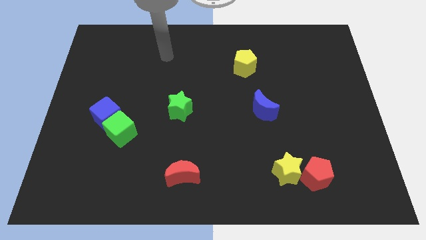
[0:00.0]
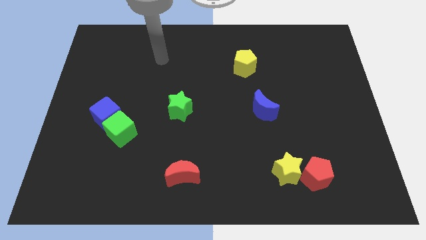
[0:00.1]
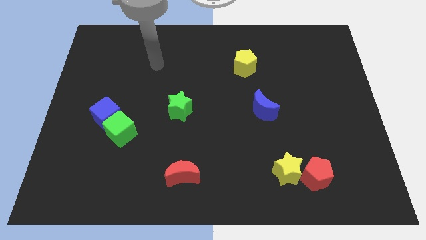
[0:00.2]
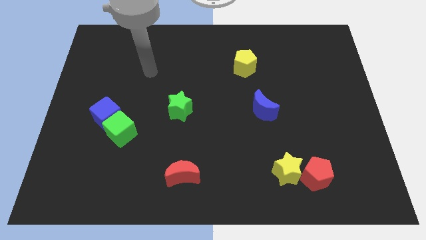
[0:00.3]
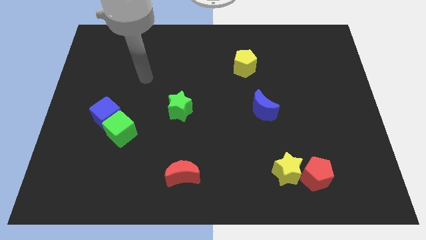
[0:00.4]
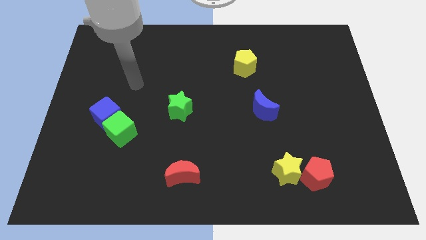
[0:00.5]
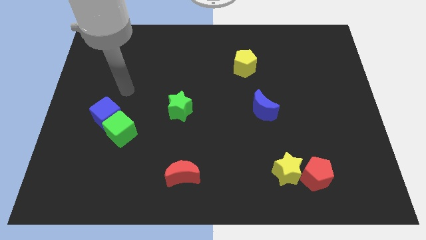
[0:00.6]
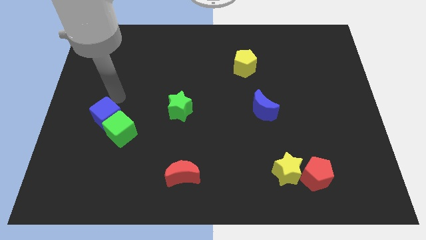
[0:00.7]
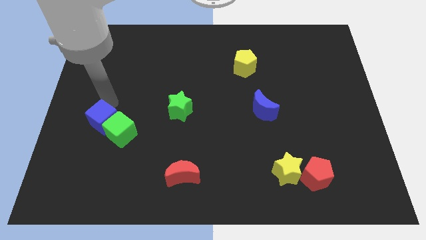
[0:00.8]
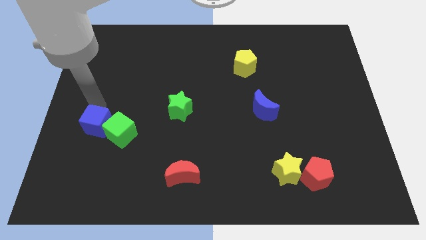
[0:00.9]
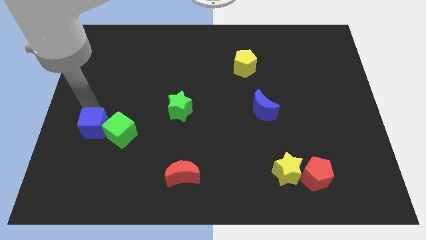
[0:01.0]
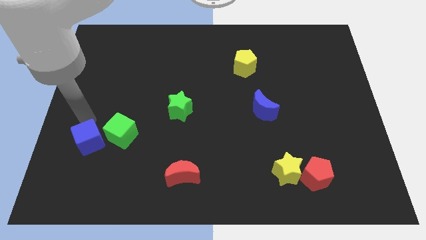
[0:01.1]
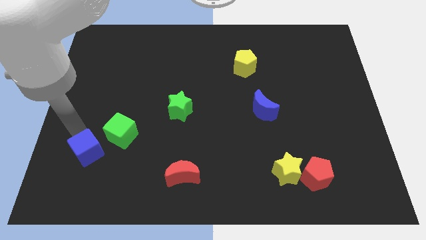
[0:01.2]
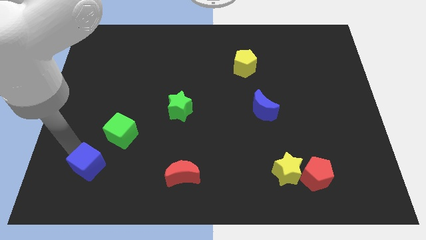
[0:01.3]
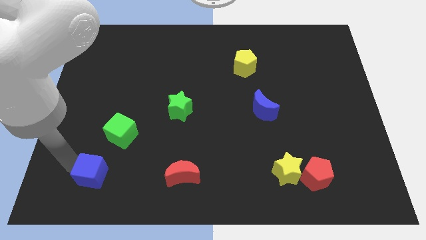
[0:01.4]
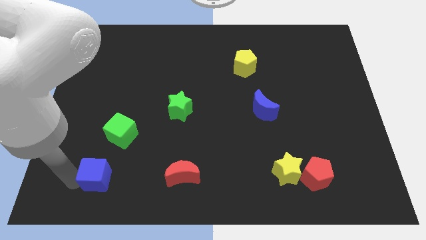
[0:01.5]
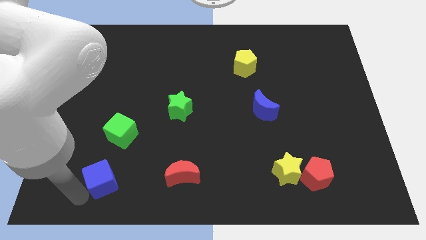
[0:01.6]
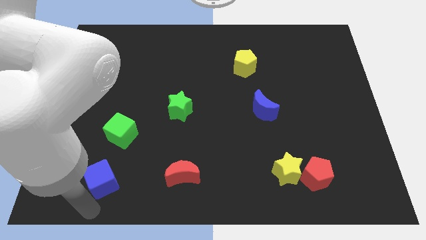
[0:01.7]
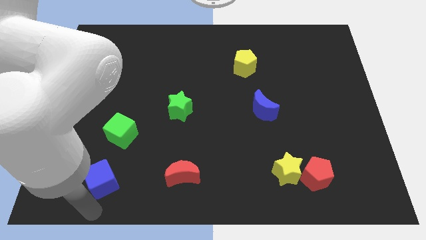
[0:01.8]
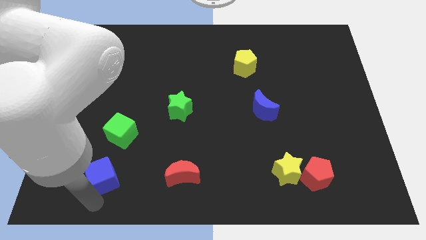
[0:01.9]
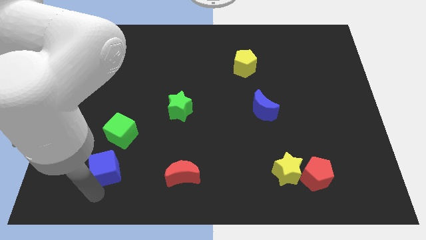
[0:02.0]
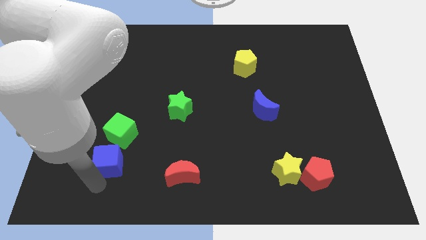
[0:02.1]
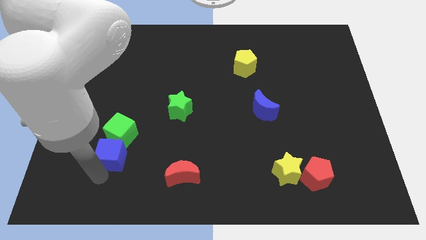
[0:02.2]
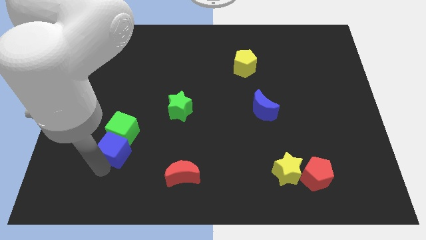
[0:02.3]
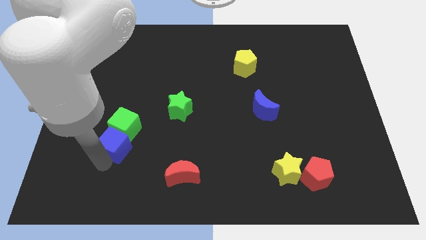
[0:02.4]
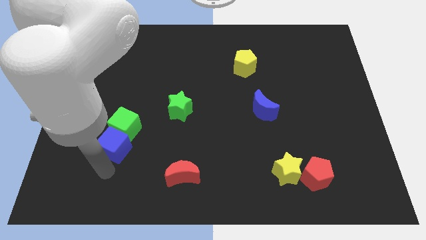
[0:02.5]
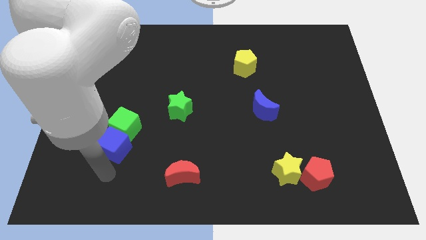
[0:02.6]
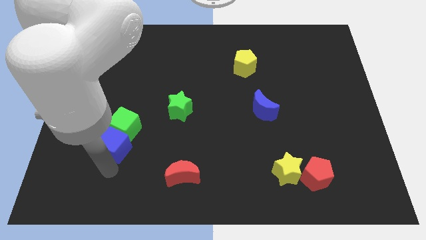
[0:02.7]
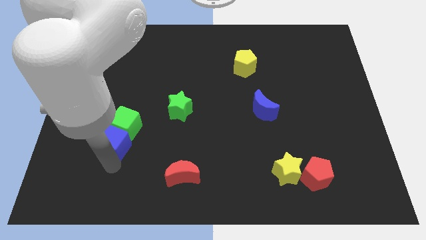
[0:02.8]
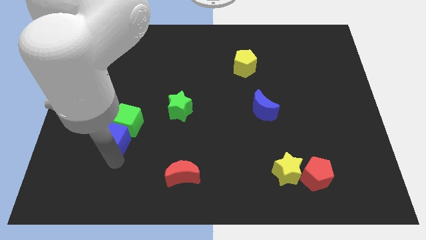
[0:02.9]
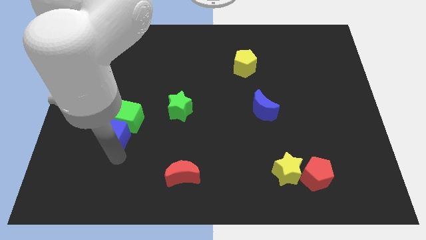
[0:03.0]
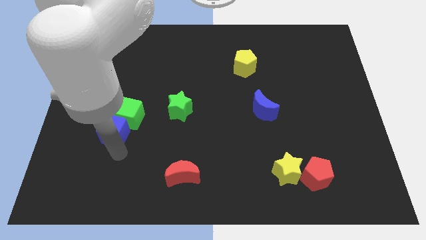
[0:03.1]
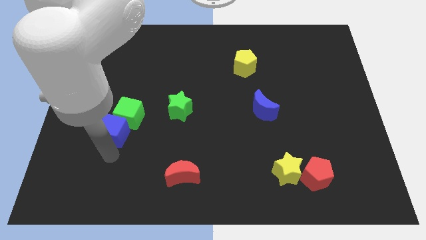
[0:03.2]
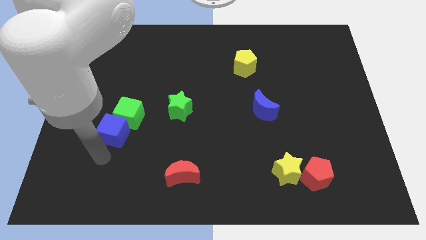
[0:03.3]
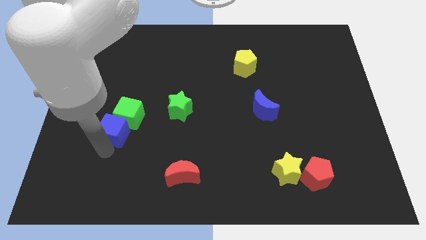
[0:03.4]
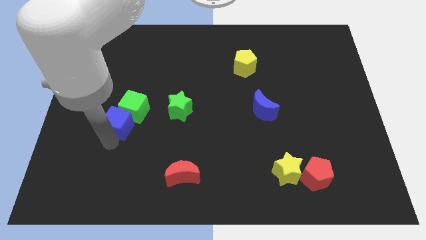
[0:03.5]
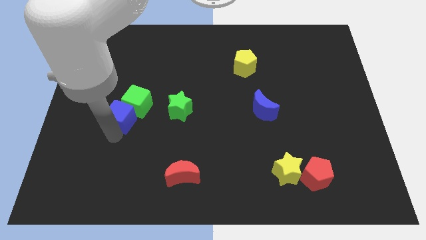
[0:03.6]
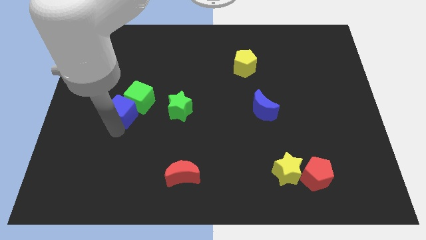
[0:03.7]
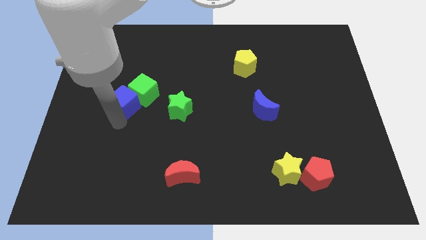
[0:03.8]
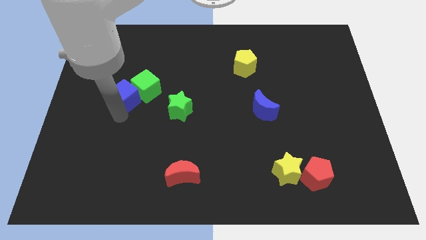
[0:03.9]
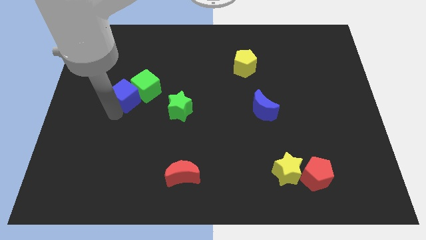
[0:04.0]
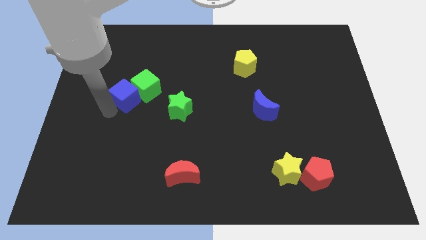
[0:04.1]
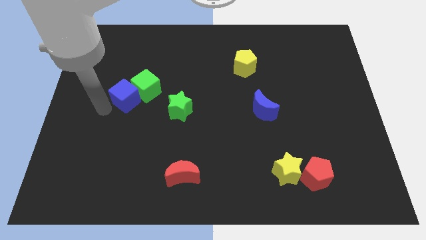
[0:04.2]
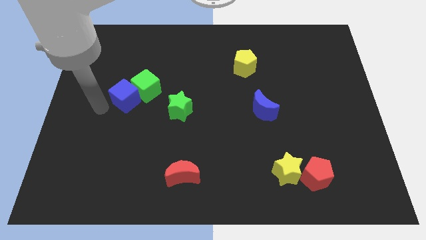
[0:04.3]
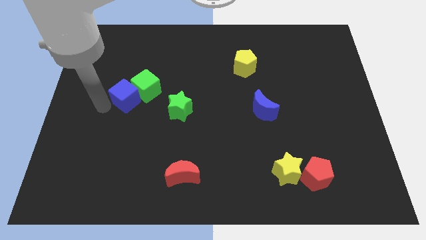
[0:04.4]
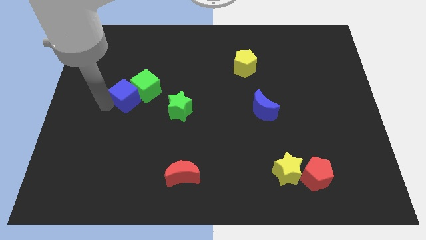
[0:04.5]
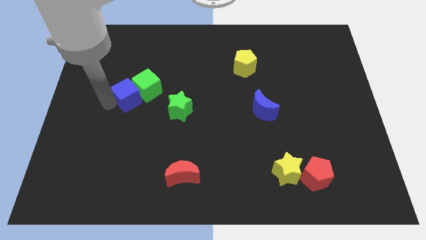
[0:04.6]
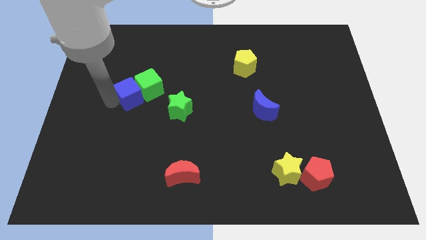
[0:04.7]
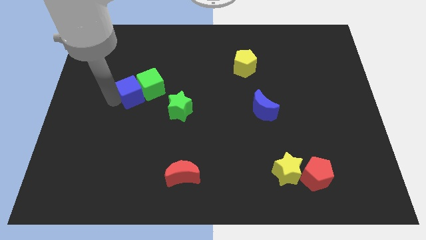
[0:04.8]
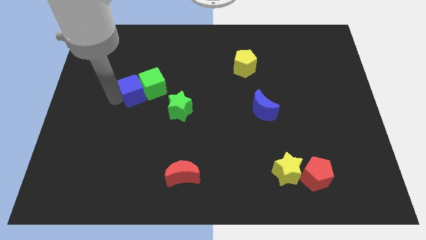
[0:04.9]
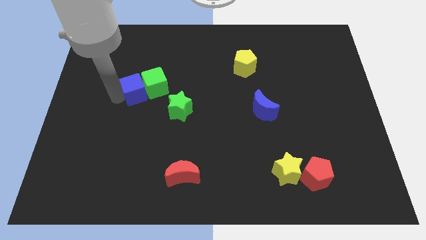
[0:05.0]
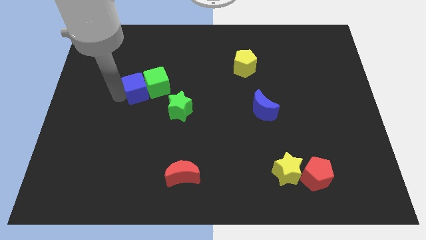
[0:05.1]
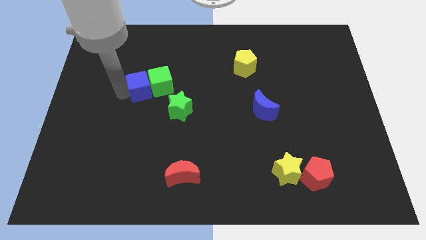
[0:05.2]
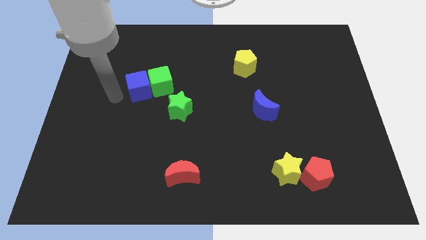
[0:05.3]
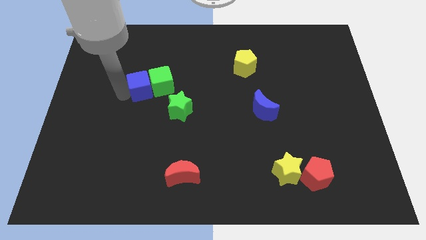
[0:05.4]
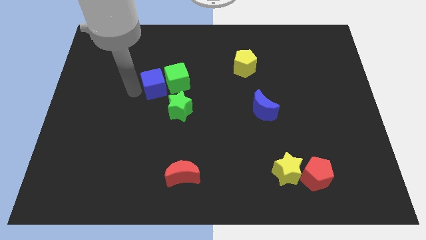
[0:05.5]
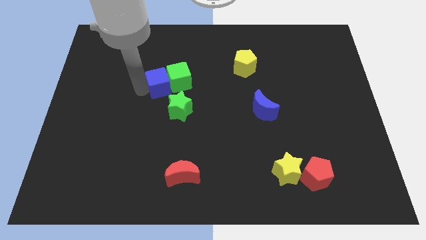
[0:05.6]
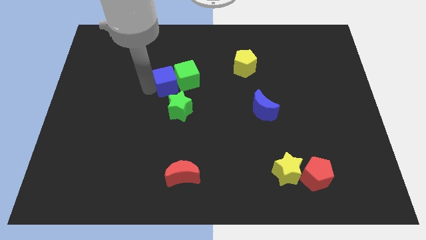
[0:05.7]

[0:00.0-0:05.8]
push the blue cube above the green star

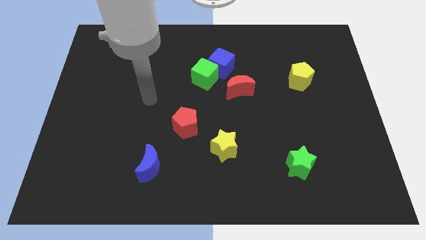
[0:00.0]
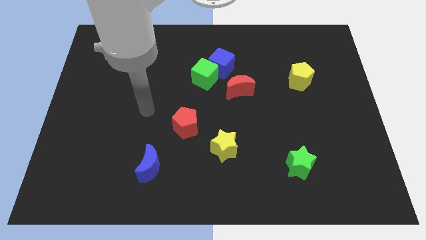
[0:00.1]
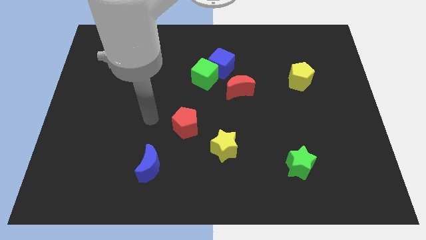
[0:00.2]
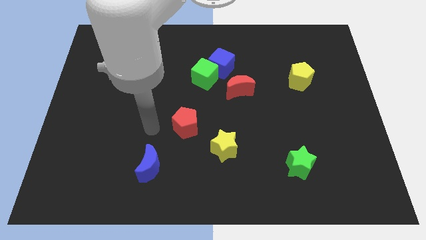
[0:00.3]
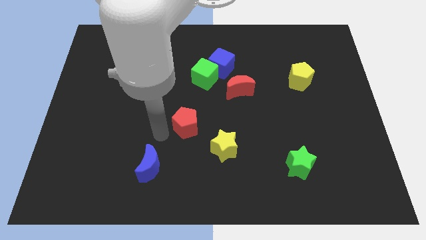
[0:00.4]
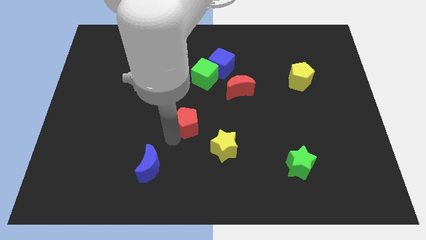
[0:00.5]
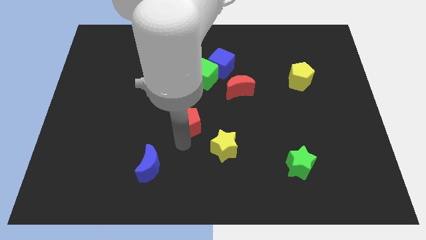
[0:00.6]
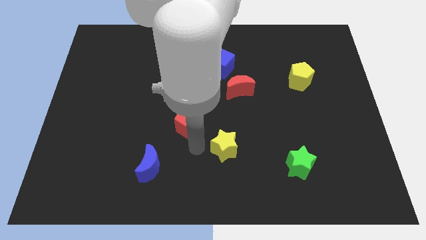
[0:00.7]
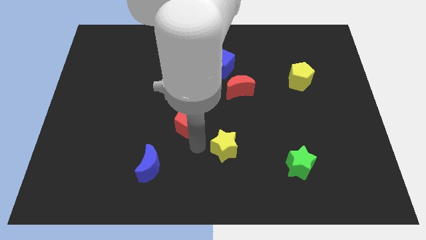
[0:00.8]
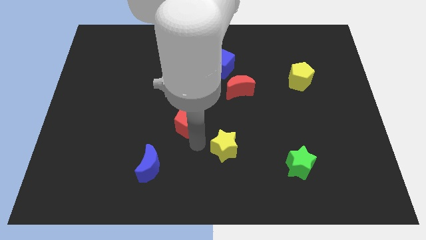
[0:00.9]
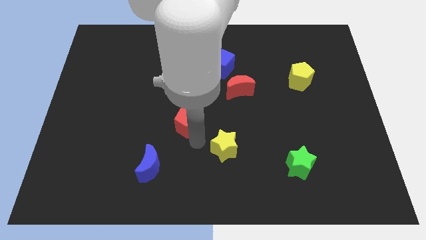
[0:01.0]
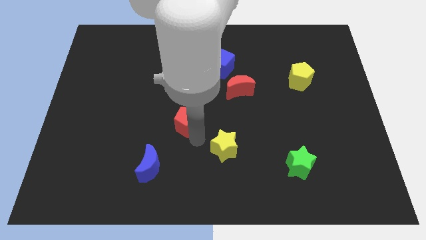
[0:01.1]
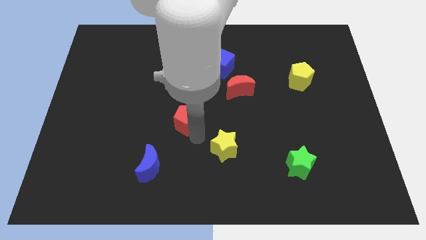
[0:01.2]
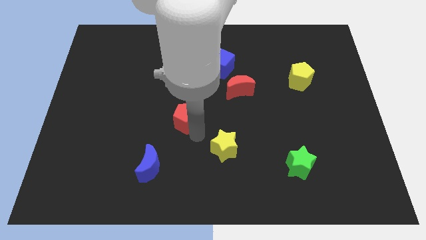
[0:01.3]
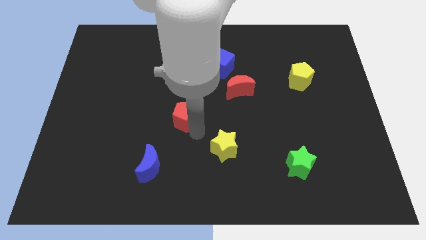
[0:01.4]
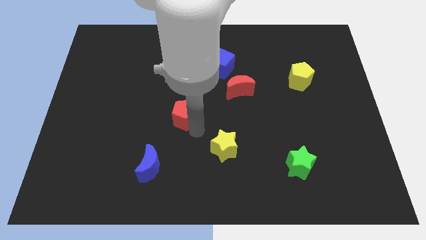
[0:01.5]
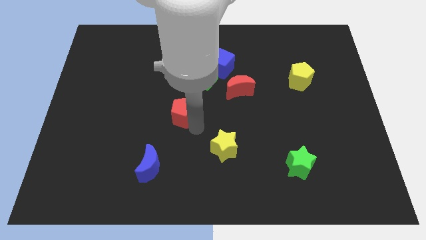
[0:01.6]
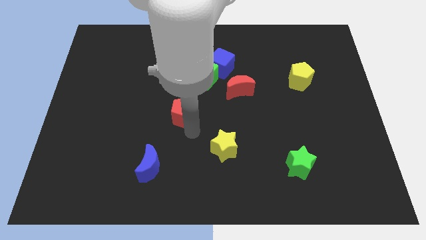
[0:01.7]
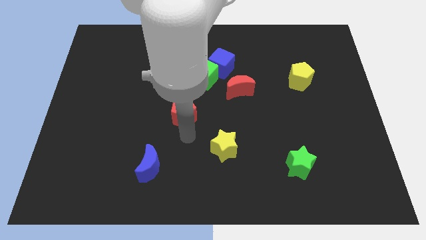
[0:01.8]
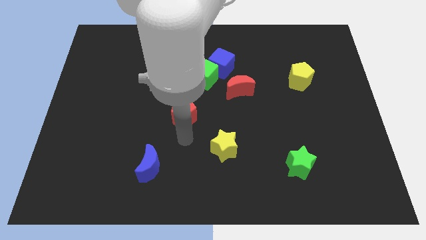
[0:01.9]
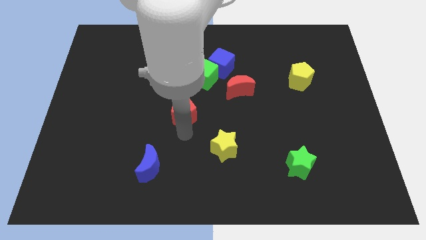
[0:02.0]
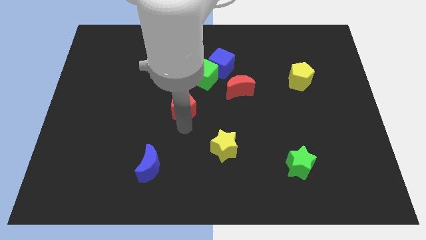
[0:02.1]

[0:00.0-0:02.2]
slide the red pentagon to the bottom left of the green cube

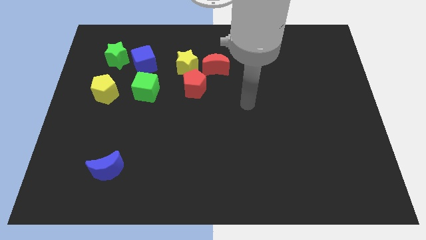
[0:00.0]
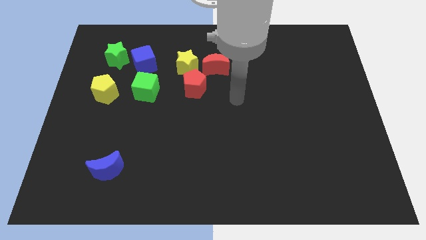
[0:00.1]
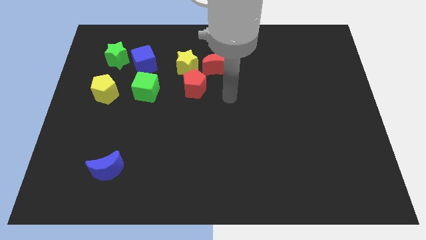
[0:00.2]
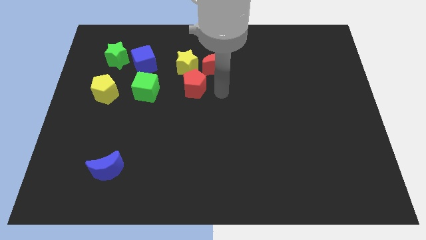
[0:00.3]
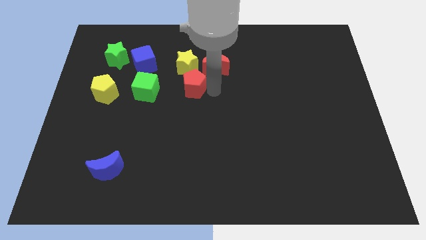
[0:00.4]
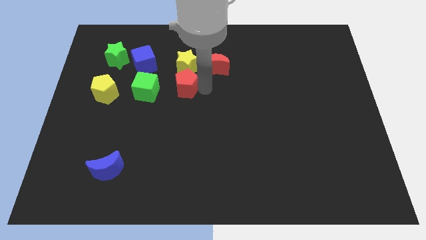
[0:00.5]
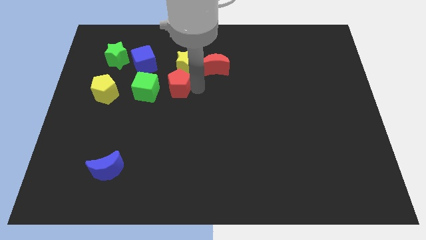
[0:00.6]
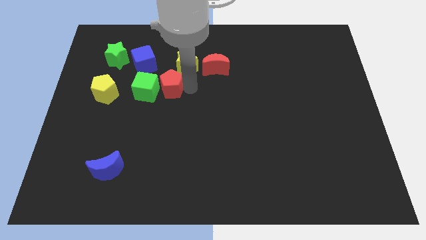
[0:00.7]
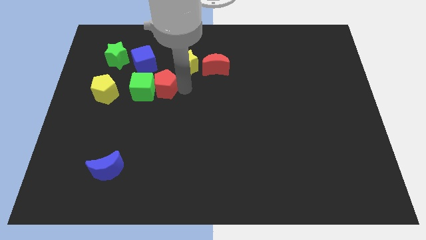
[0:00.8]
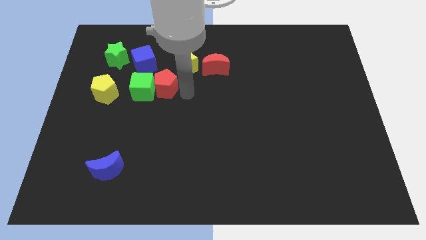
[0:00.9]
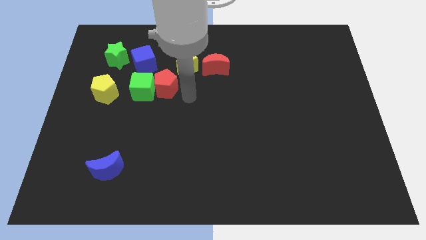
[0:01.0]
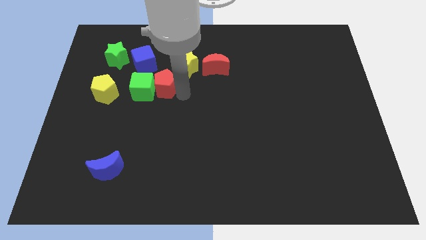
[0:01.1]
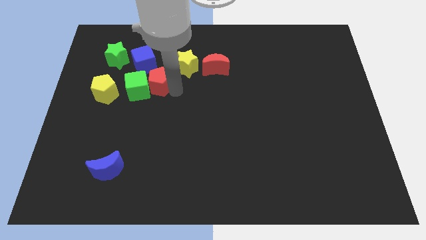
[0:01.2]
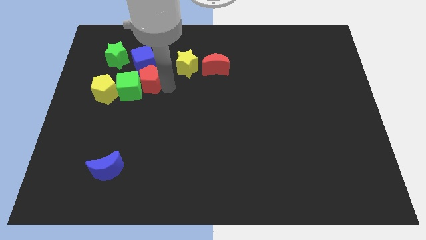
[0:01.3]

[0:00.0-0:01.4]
move the red pentagon to the bottom right of the green star
